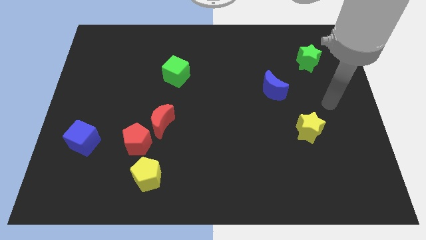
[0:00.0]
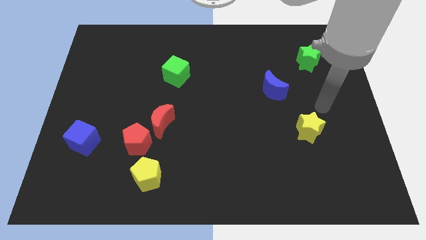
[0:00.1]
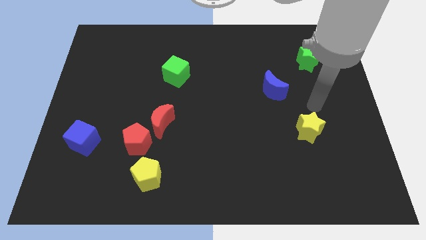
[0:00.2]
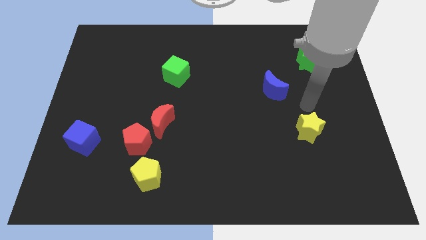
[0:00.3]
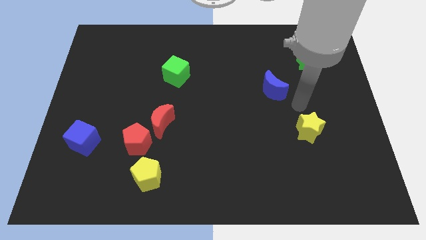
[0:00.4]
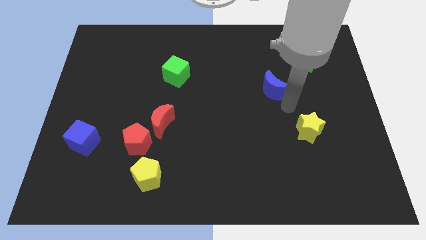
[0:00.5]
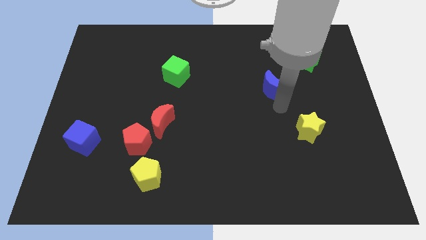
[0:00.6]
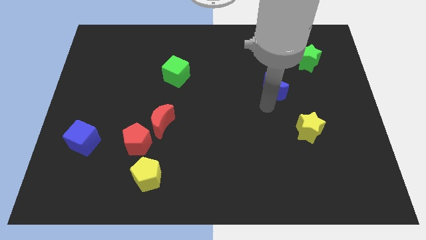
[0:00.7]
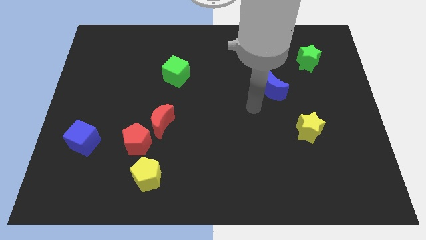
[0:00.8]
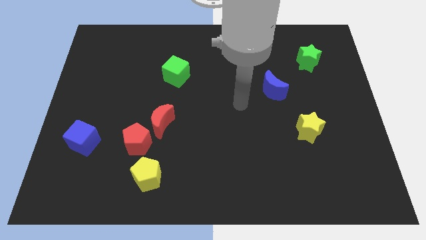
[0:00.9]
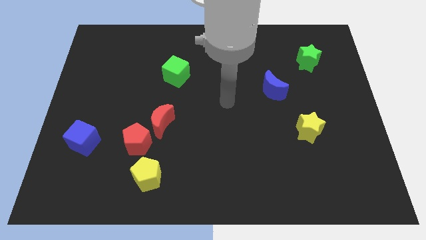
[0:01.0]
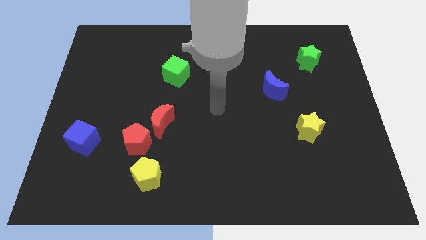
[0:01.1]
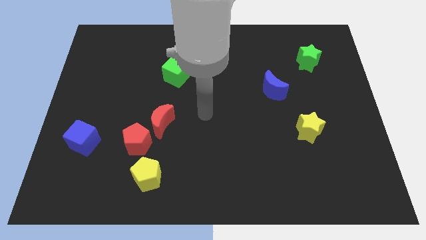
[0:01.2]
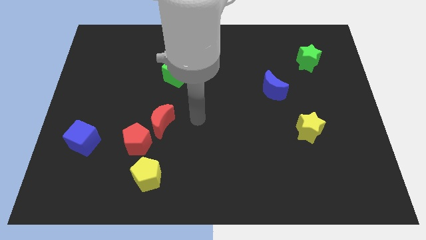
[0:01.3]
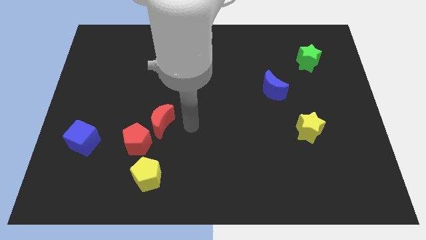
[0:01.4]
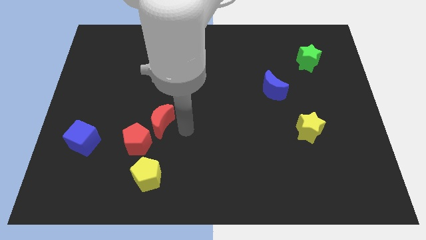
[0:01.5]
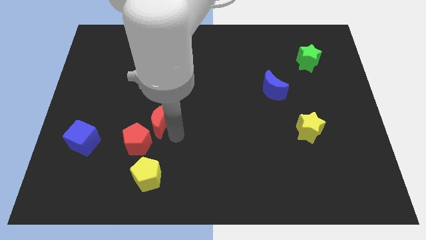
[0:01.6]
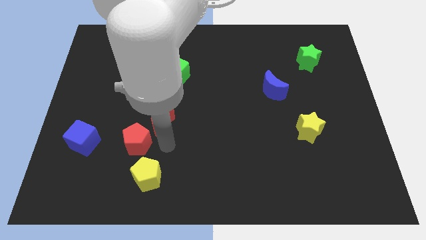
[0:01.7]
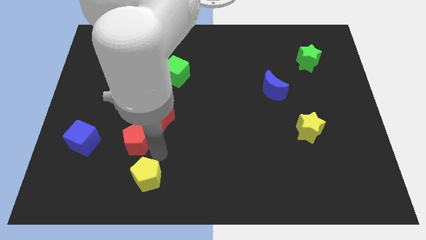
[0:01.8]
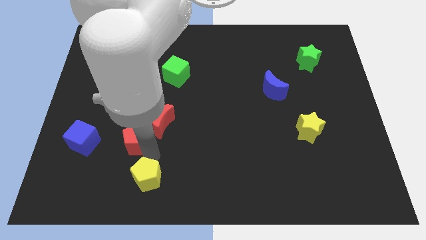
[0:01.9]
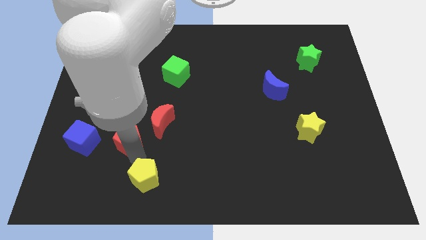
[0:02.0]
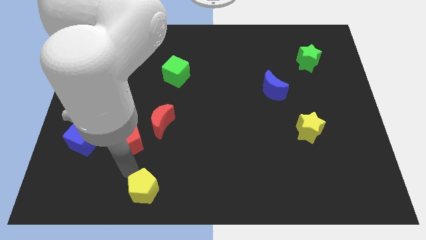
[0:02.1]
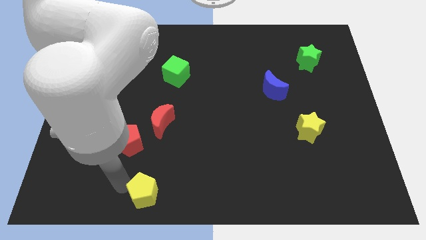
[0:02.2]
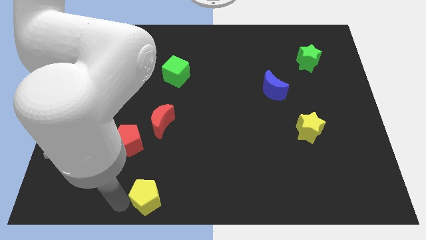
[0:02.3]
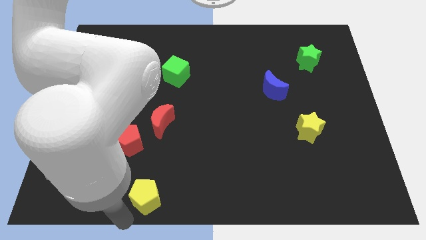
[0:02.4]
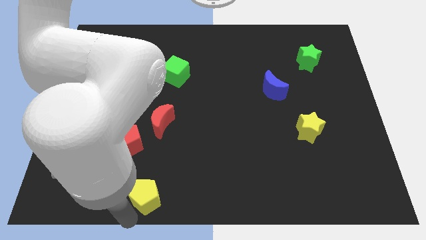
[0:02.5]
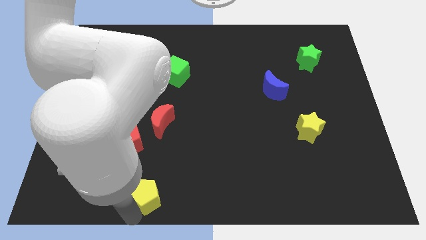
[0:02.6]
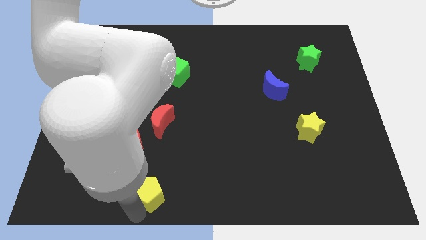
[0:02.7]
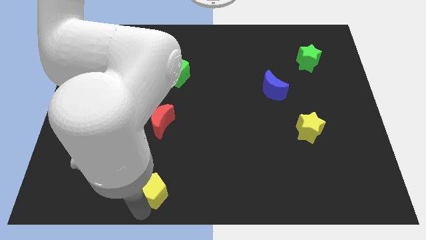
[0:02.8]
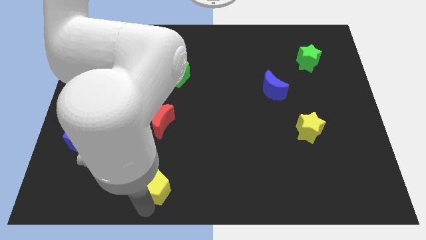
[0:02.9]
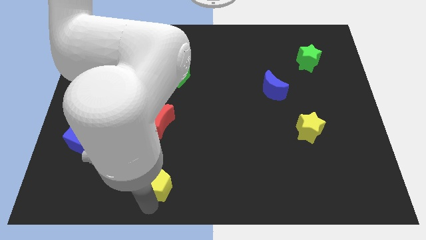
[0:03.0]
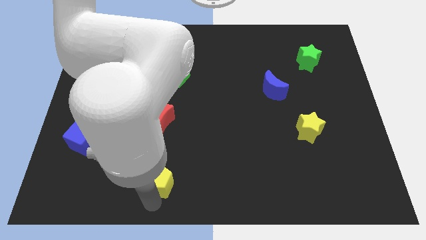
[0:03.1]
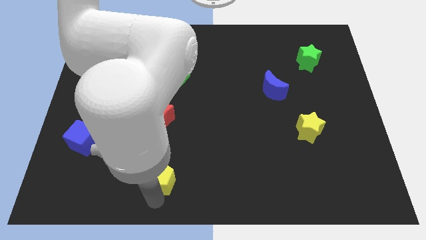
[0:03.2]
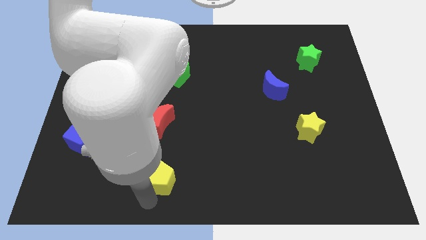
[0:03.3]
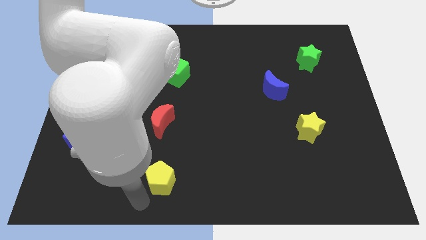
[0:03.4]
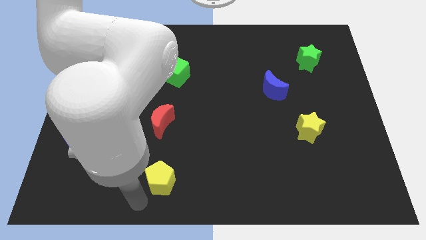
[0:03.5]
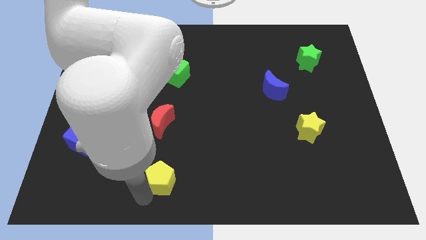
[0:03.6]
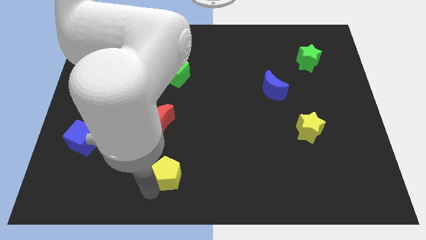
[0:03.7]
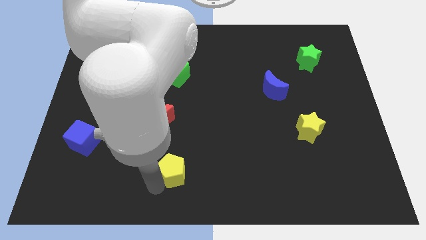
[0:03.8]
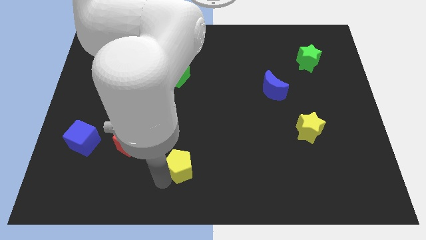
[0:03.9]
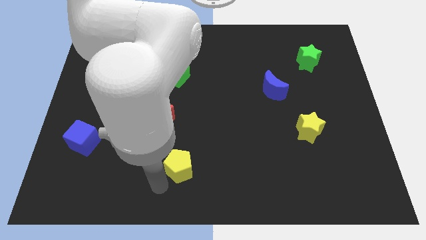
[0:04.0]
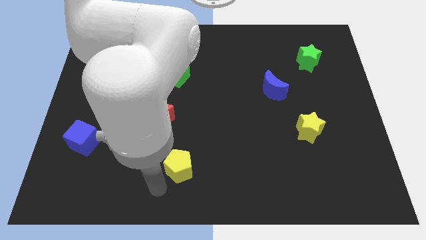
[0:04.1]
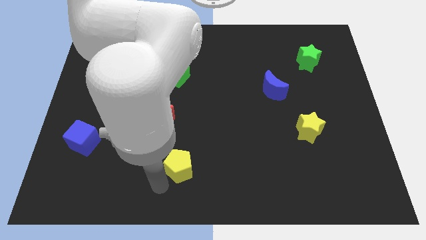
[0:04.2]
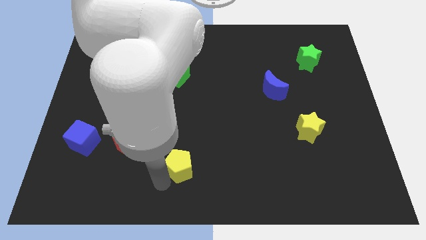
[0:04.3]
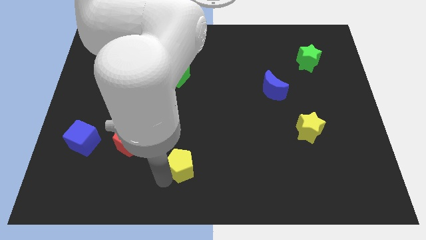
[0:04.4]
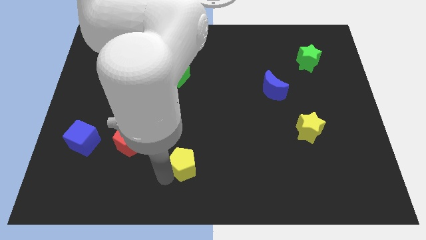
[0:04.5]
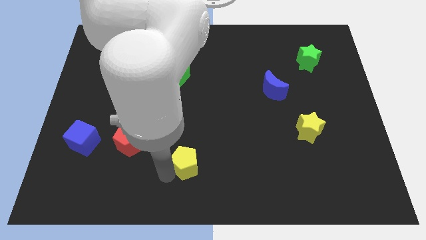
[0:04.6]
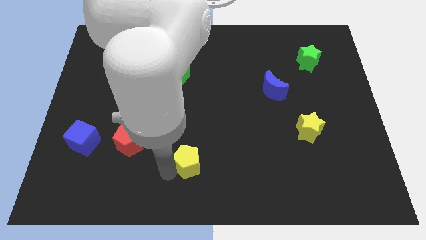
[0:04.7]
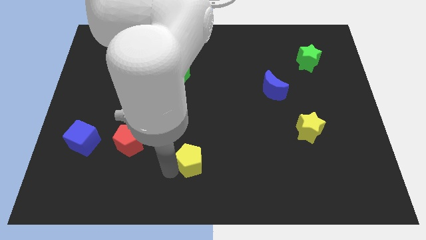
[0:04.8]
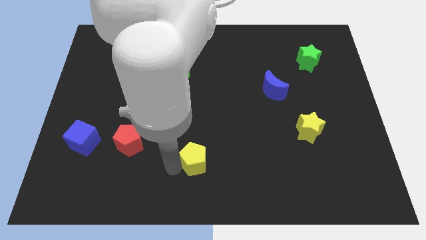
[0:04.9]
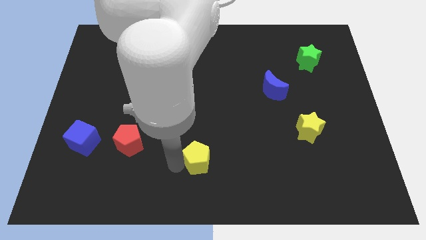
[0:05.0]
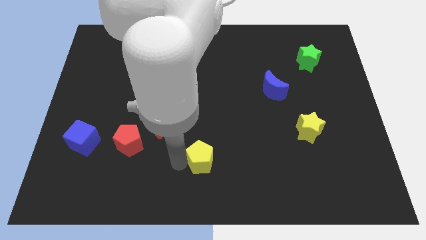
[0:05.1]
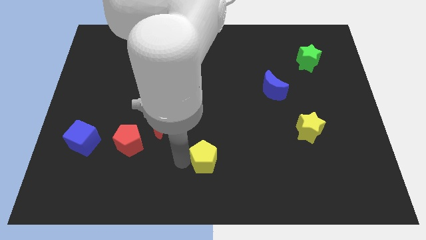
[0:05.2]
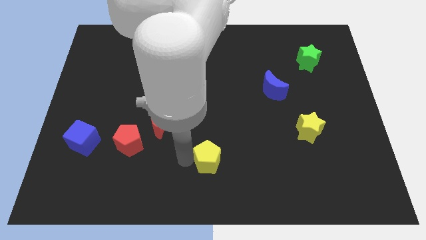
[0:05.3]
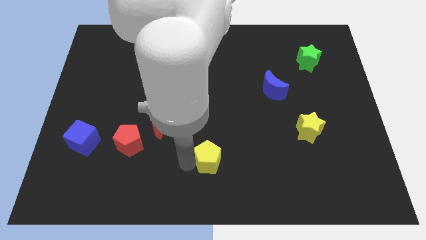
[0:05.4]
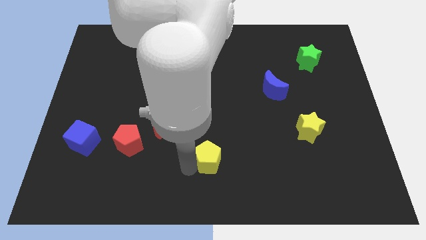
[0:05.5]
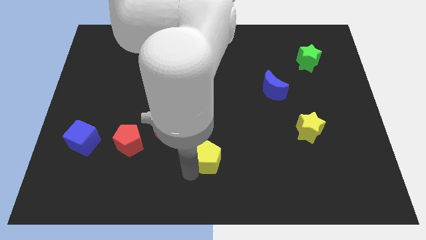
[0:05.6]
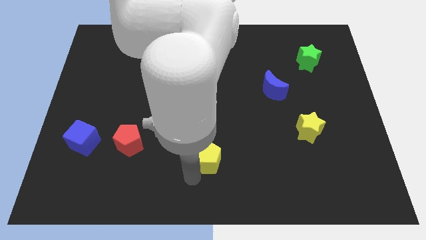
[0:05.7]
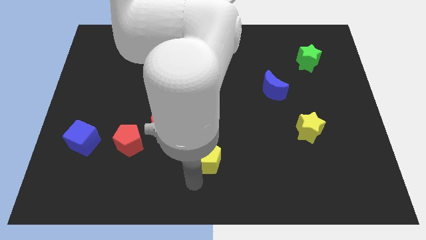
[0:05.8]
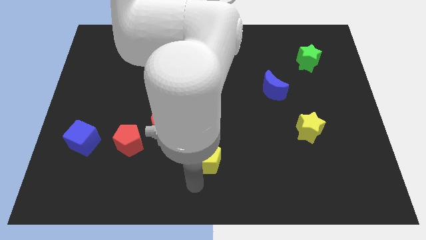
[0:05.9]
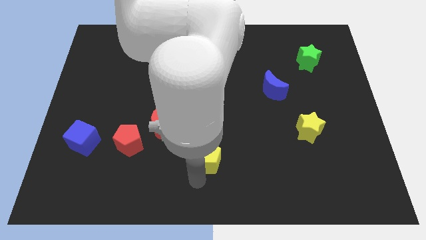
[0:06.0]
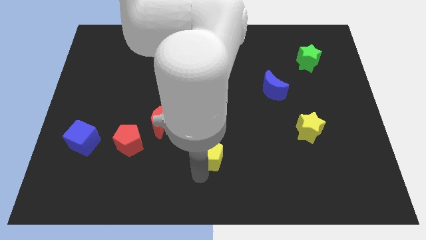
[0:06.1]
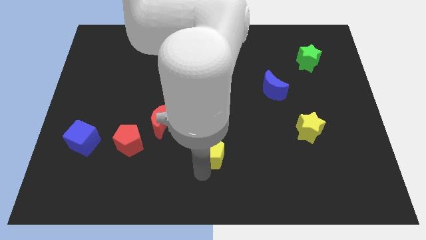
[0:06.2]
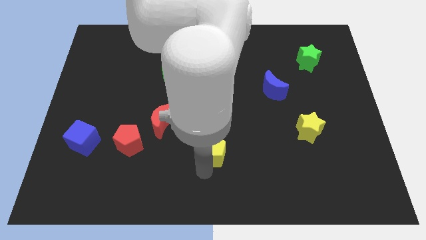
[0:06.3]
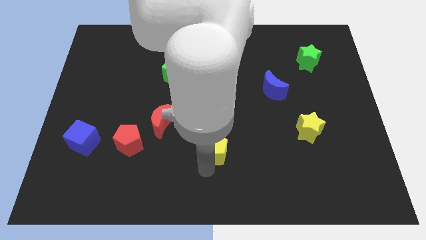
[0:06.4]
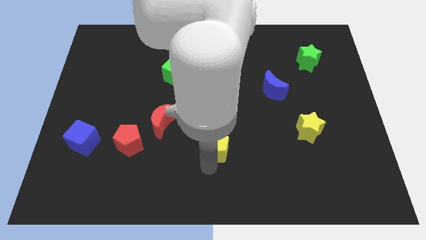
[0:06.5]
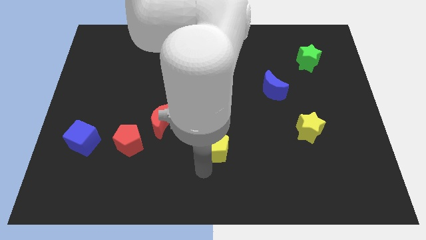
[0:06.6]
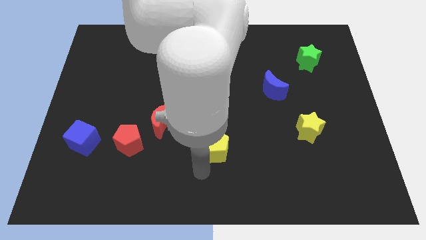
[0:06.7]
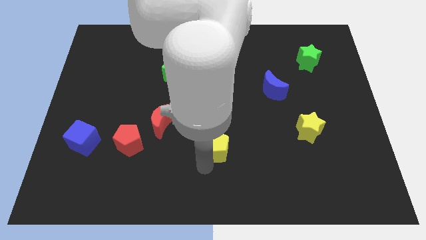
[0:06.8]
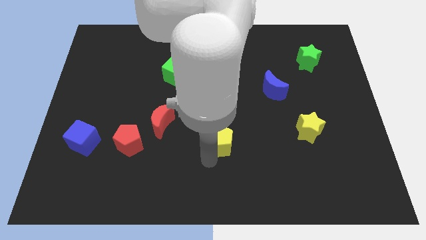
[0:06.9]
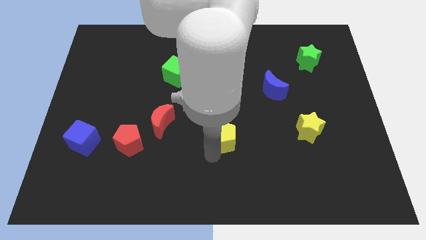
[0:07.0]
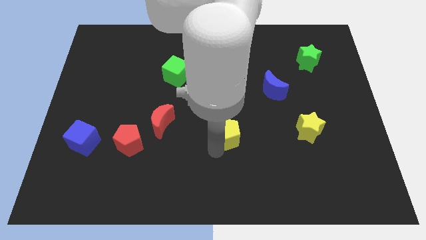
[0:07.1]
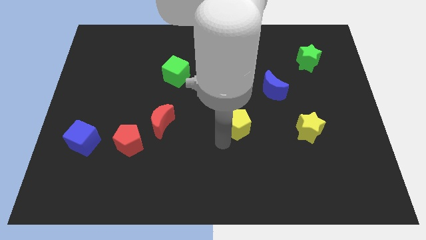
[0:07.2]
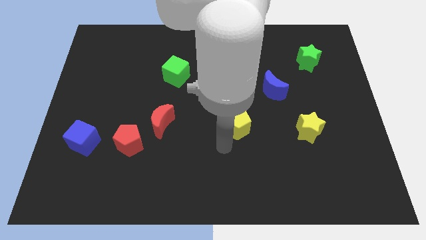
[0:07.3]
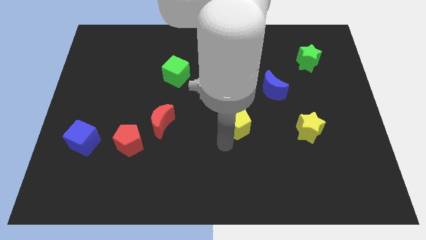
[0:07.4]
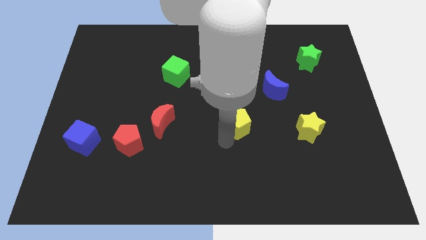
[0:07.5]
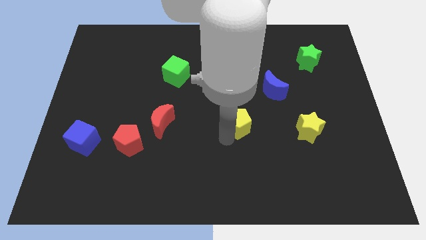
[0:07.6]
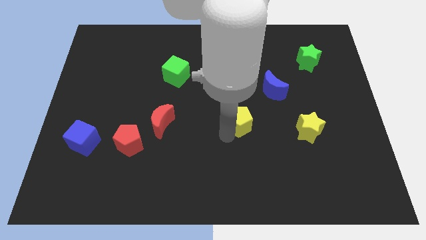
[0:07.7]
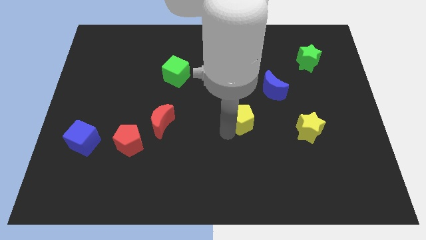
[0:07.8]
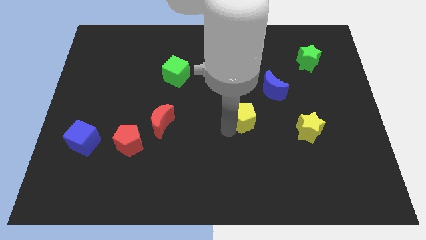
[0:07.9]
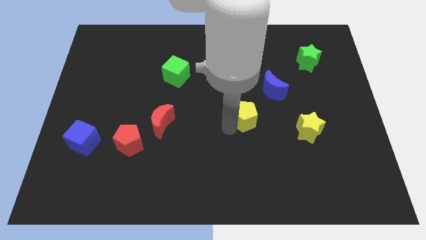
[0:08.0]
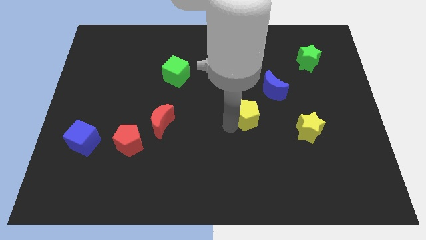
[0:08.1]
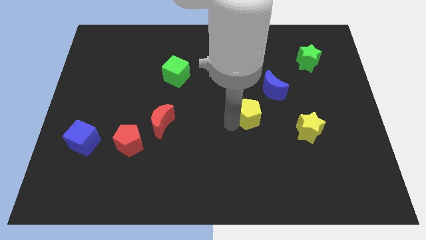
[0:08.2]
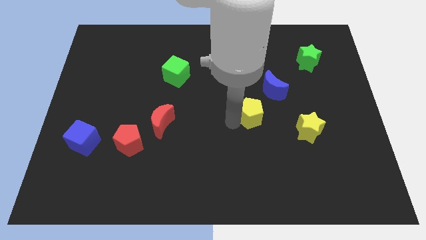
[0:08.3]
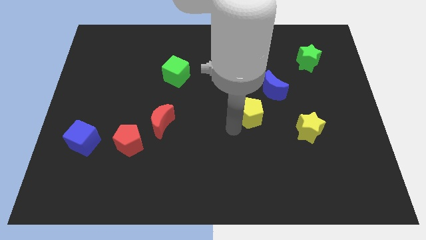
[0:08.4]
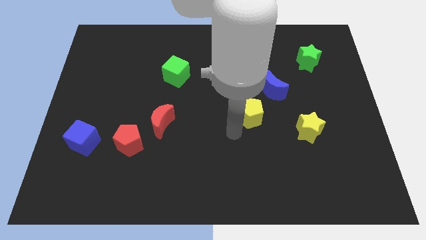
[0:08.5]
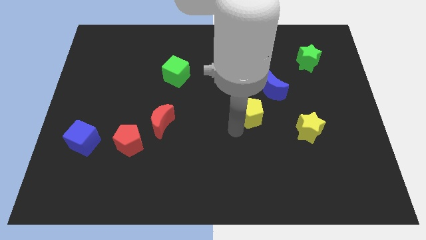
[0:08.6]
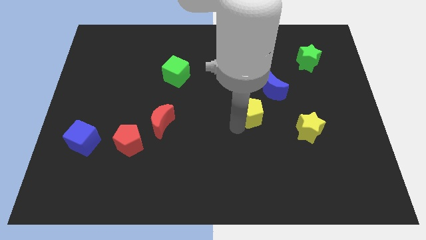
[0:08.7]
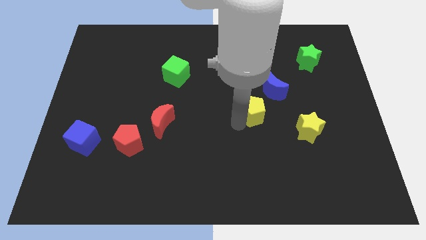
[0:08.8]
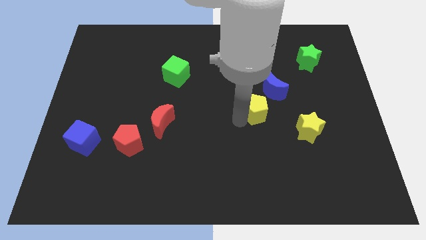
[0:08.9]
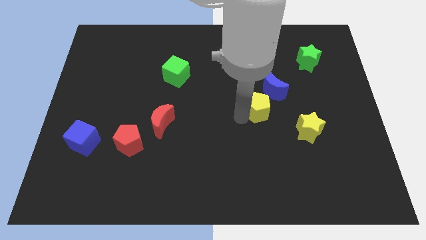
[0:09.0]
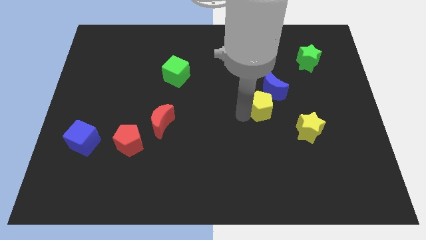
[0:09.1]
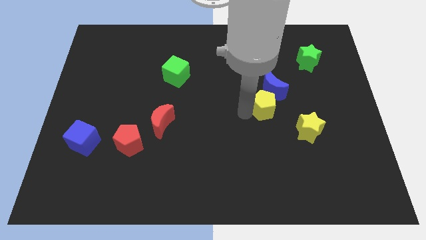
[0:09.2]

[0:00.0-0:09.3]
push the yellow pentagon close to the blue moon
